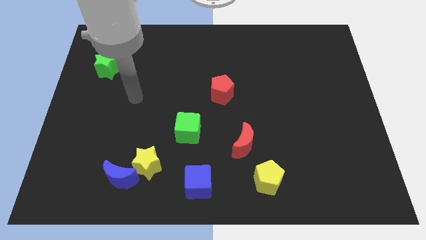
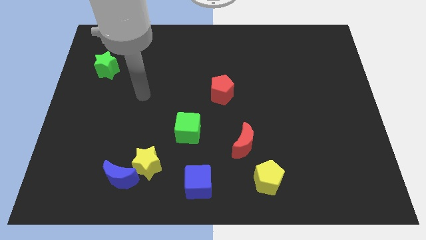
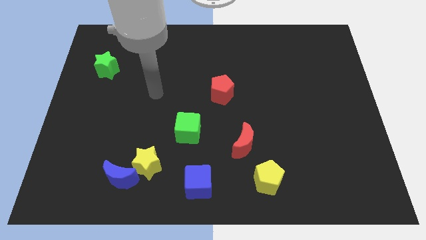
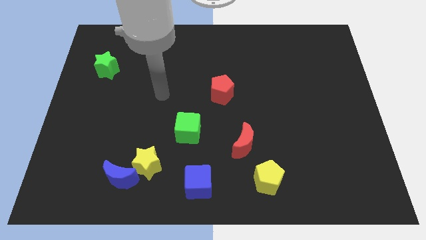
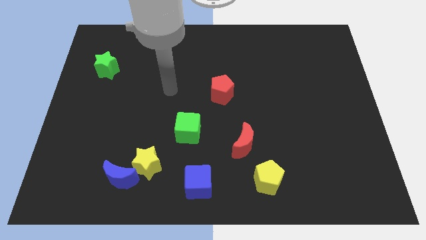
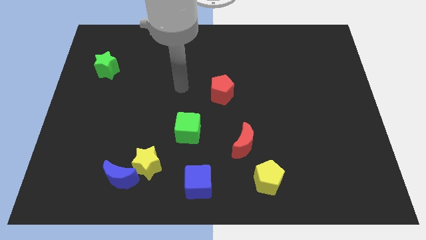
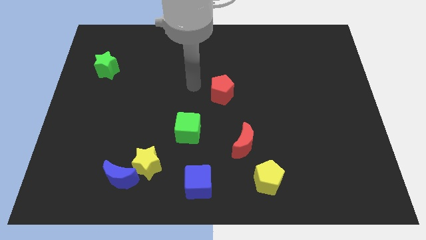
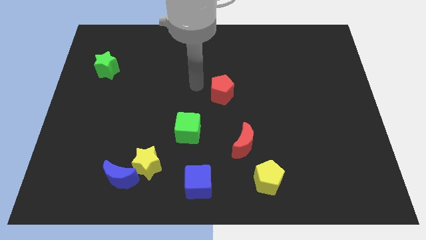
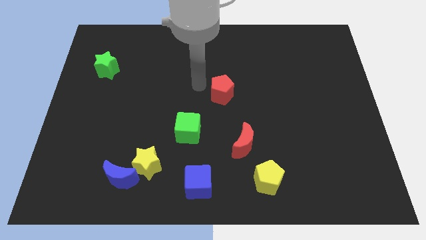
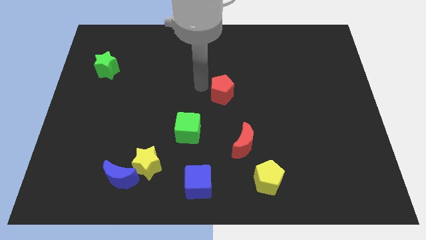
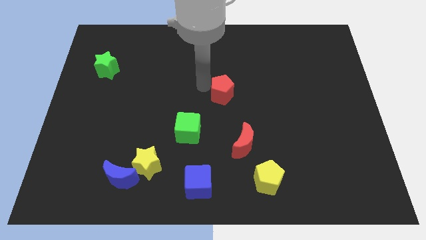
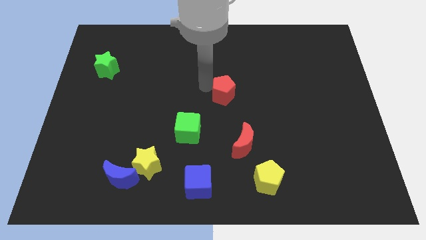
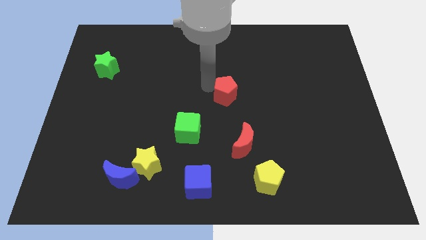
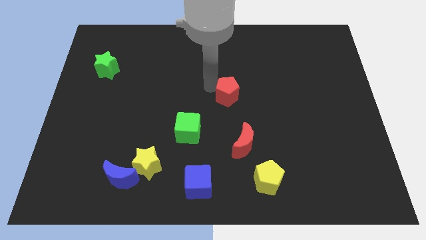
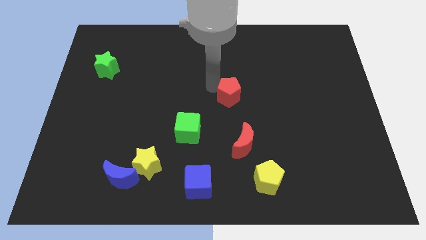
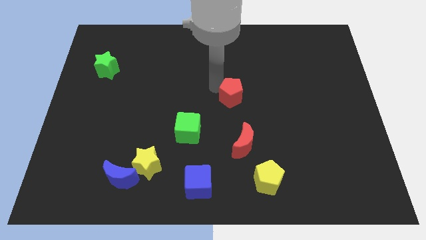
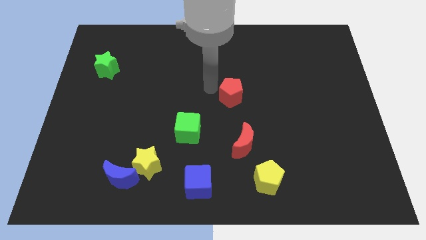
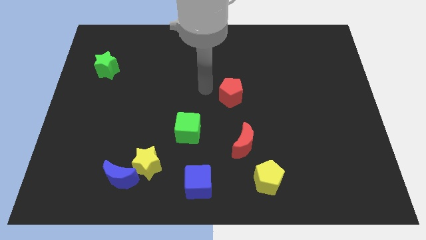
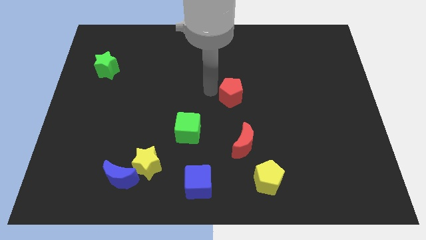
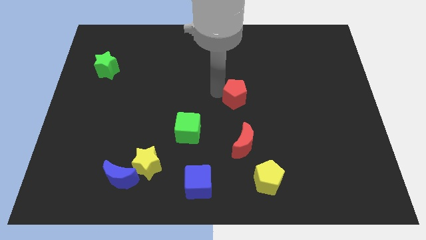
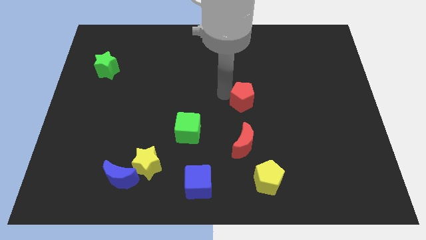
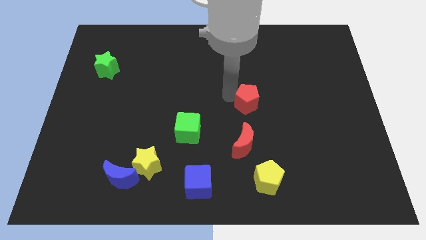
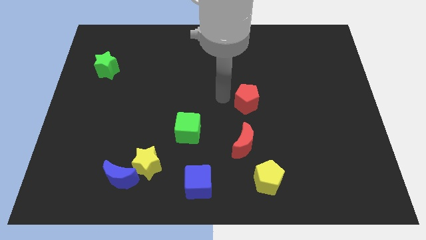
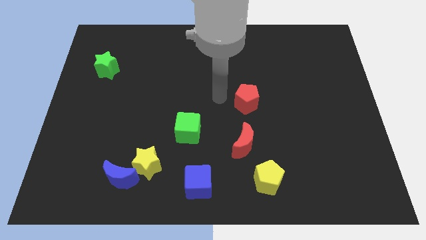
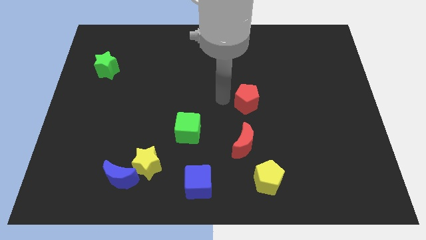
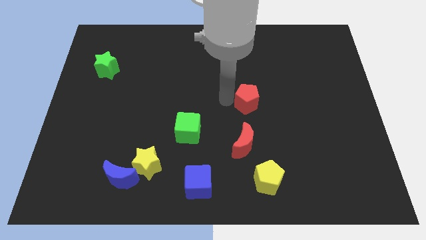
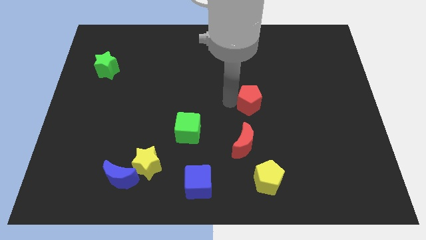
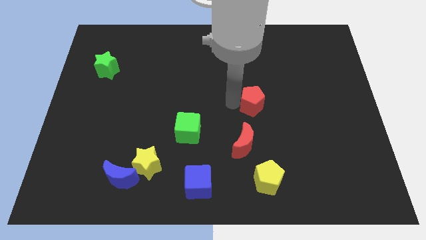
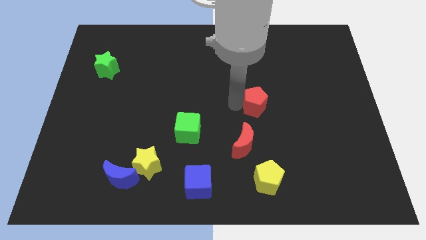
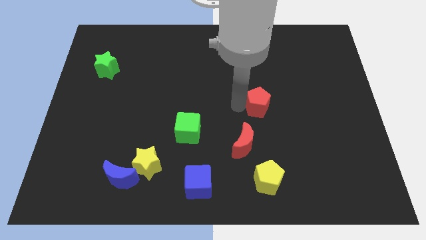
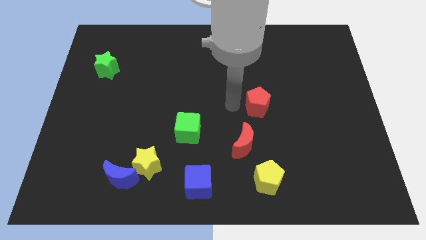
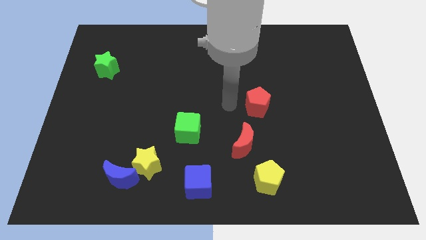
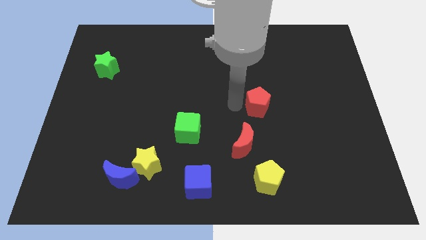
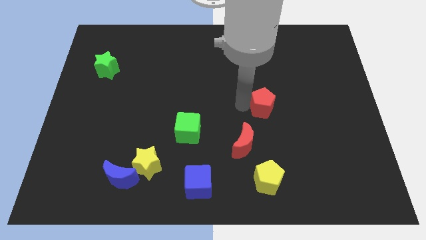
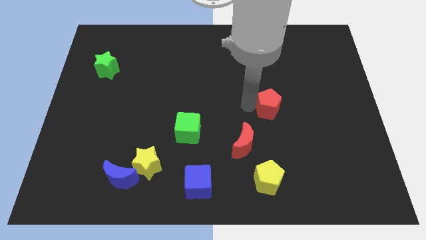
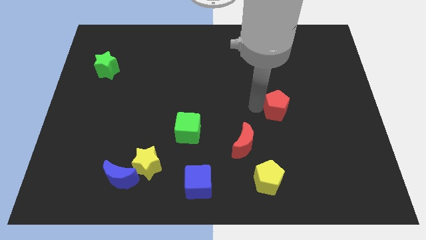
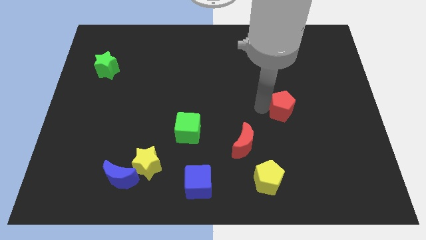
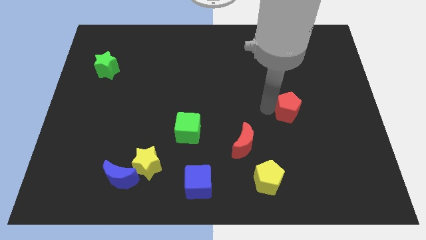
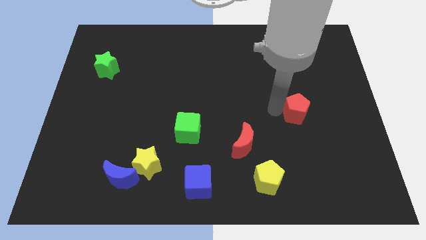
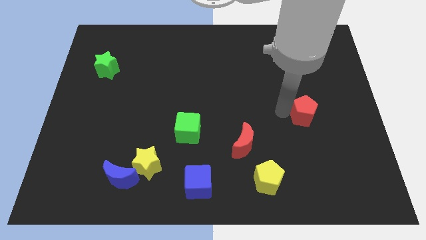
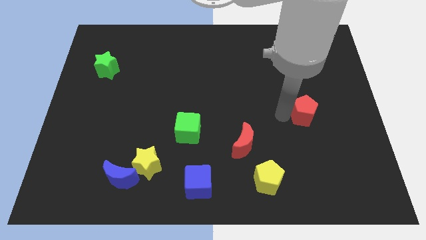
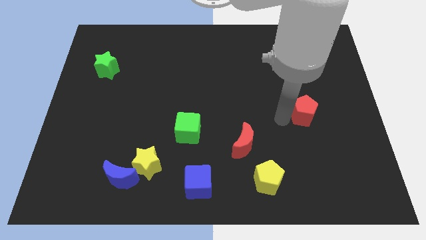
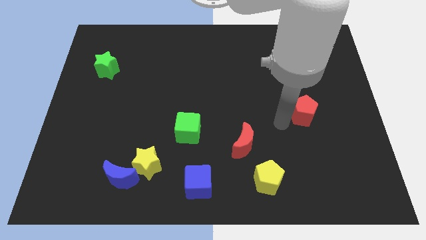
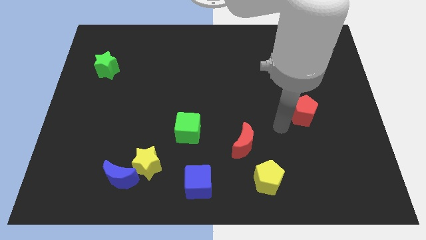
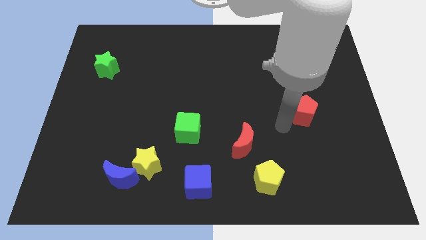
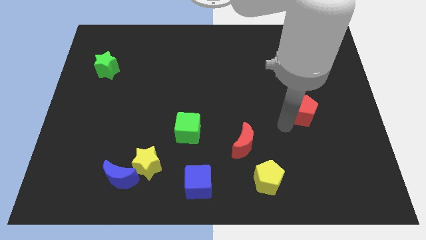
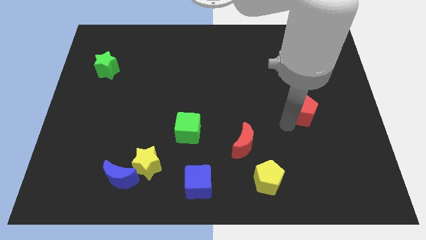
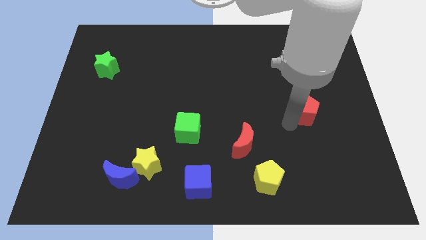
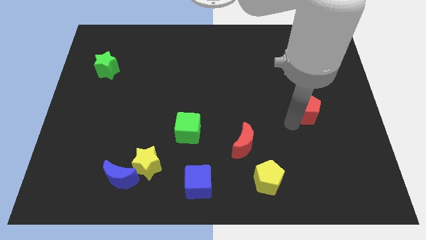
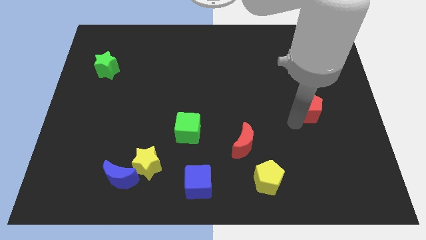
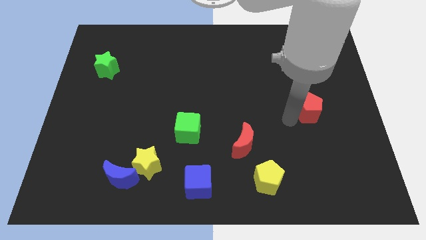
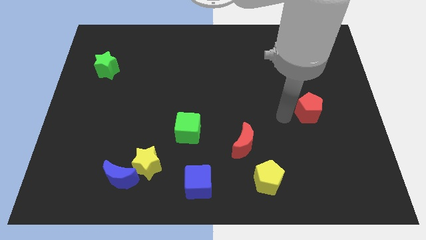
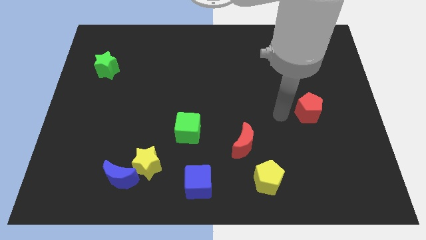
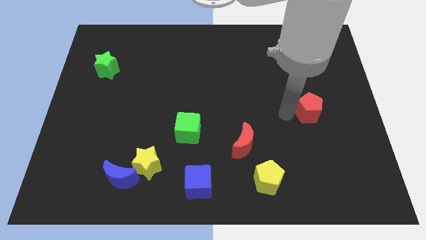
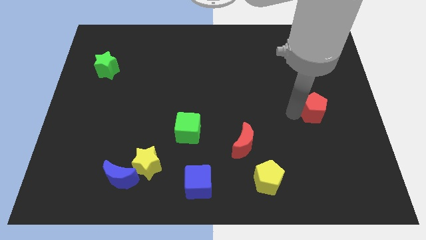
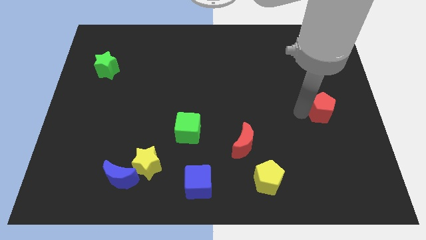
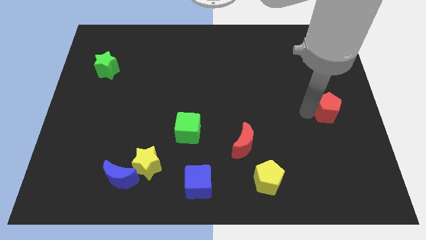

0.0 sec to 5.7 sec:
move the red pentagon to the right side
